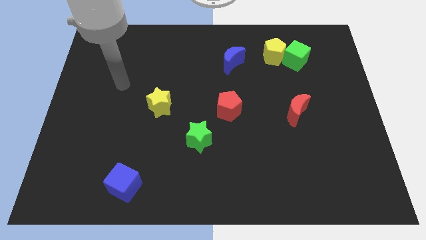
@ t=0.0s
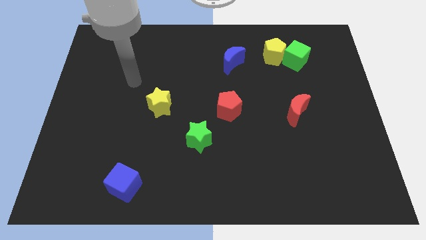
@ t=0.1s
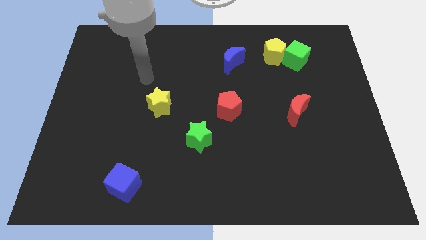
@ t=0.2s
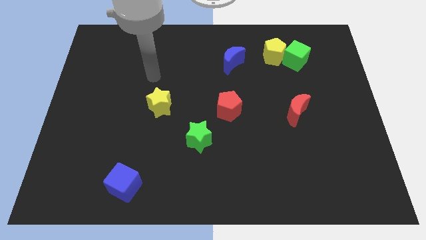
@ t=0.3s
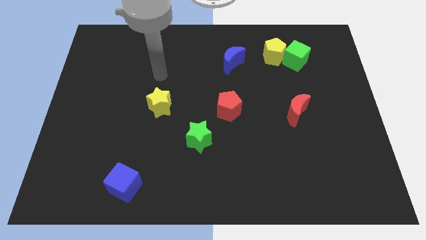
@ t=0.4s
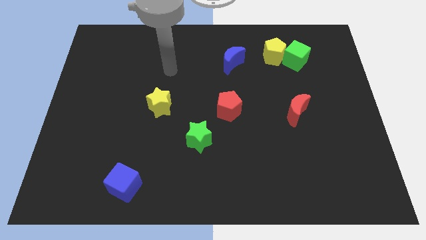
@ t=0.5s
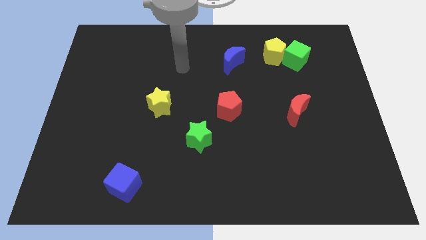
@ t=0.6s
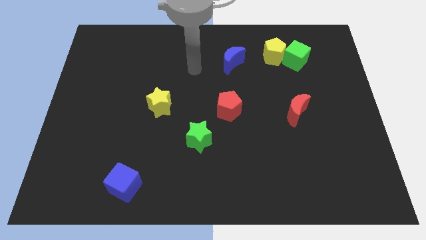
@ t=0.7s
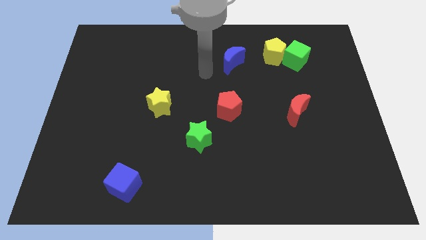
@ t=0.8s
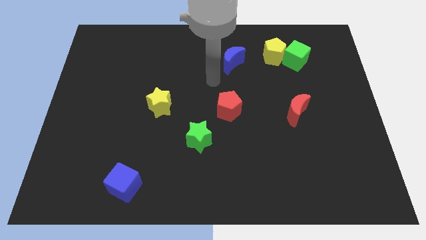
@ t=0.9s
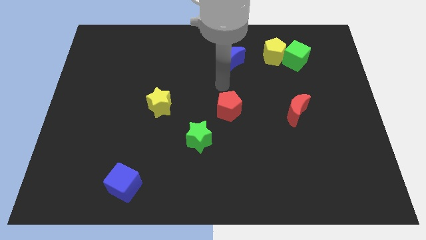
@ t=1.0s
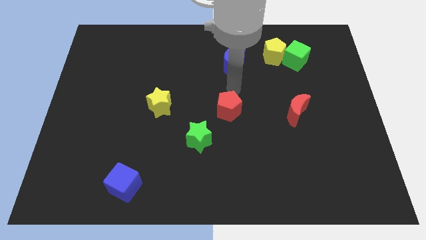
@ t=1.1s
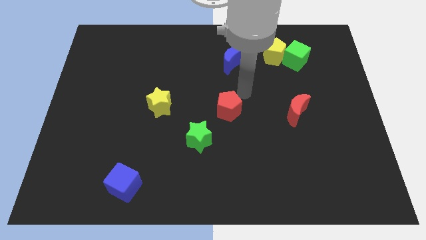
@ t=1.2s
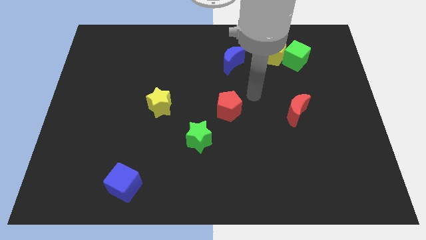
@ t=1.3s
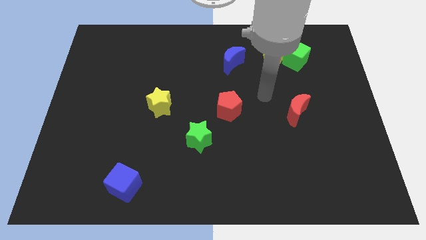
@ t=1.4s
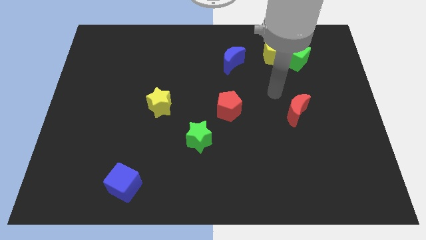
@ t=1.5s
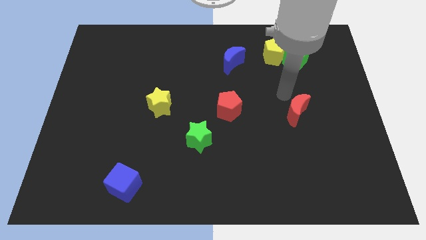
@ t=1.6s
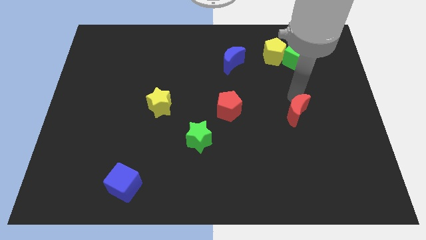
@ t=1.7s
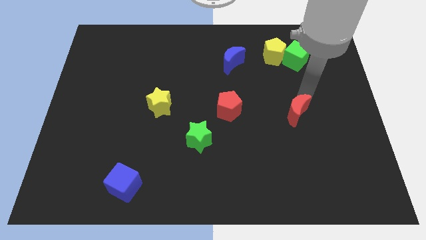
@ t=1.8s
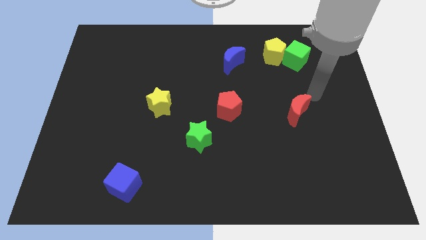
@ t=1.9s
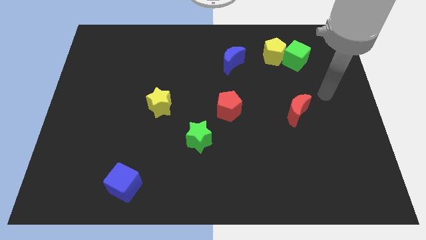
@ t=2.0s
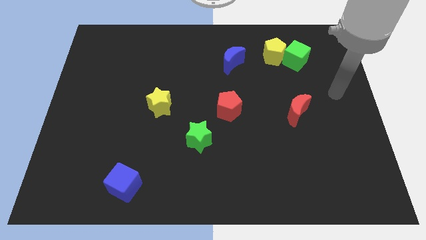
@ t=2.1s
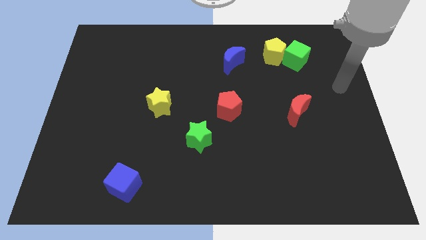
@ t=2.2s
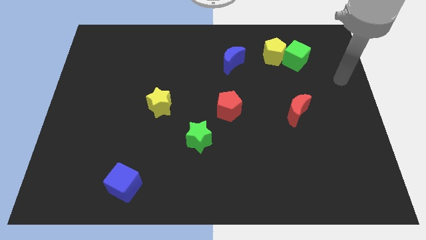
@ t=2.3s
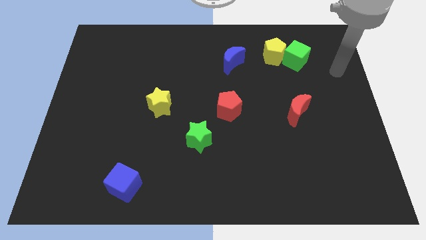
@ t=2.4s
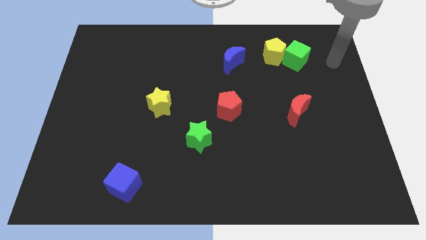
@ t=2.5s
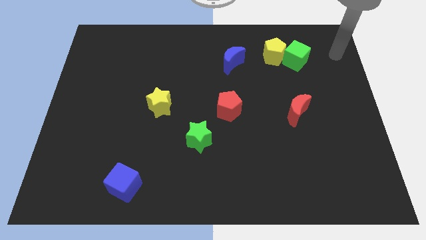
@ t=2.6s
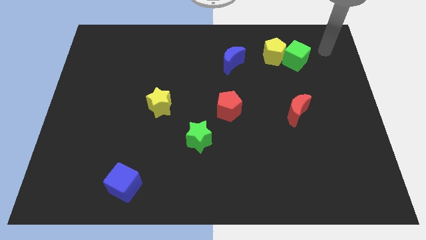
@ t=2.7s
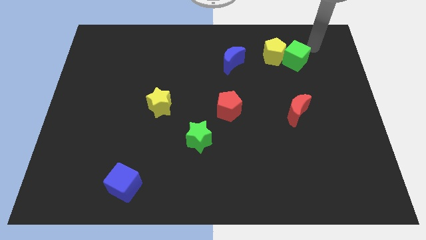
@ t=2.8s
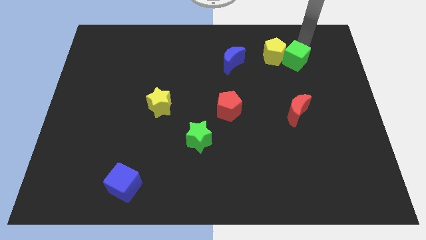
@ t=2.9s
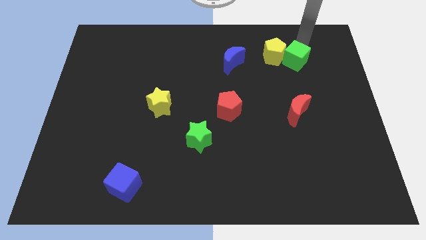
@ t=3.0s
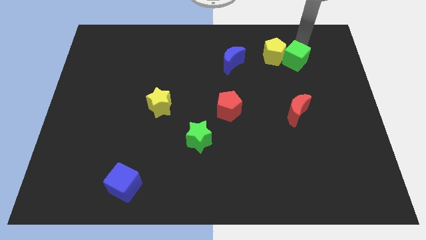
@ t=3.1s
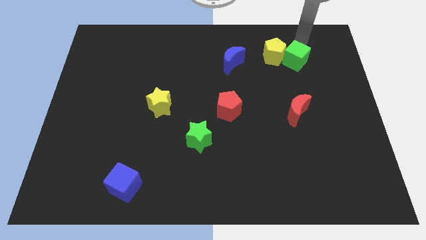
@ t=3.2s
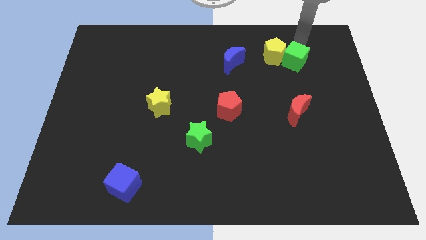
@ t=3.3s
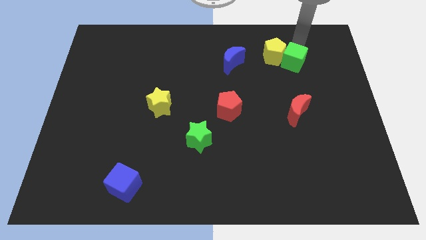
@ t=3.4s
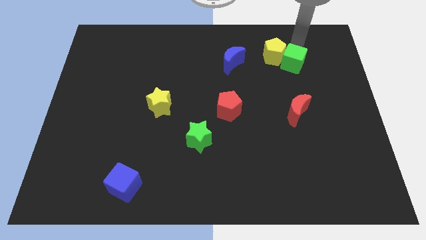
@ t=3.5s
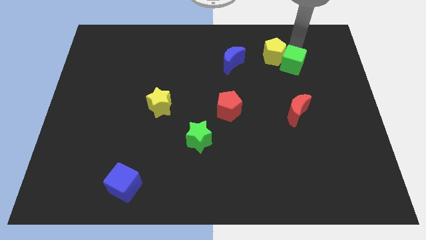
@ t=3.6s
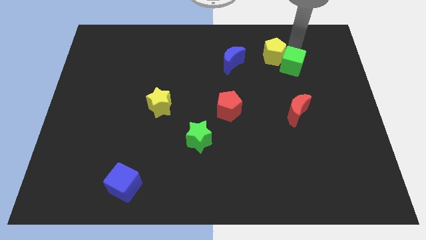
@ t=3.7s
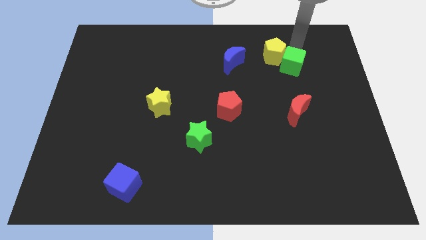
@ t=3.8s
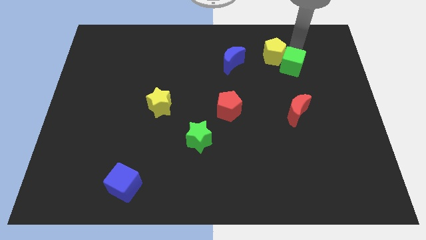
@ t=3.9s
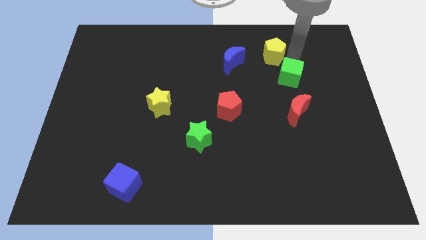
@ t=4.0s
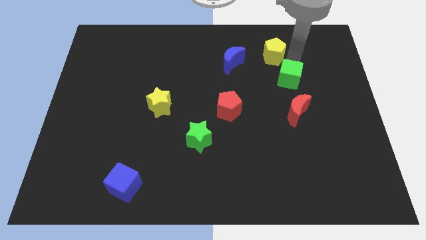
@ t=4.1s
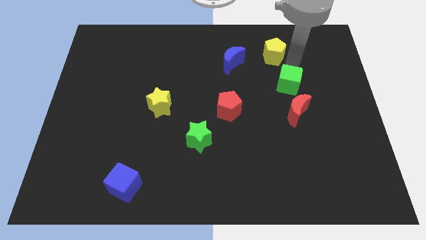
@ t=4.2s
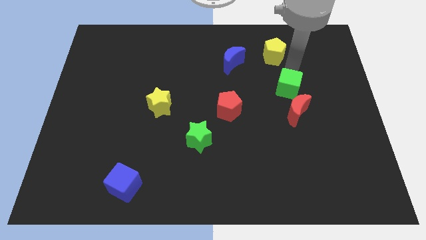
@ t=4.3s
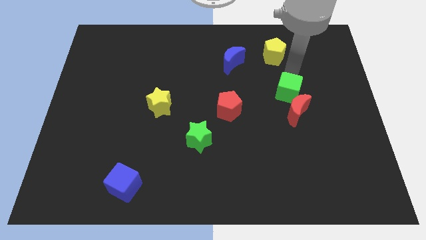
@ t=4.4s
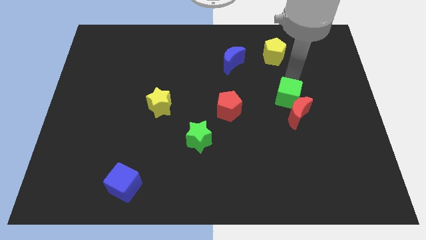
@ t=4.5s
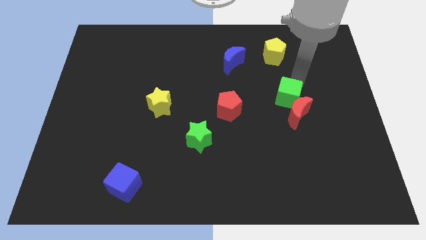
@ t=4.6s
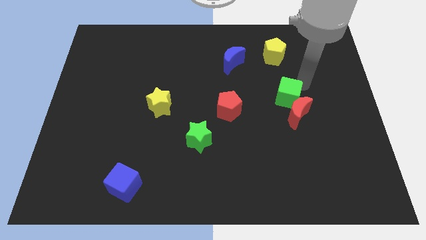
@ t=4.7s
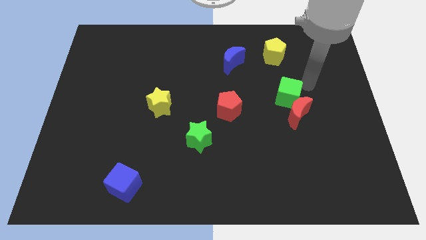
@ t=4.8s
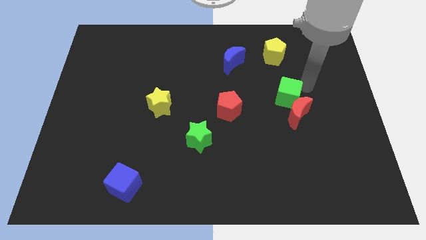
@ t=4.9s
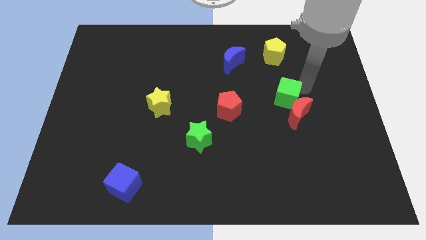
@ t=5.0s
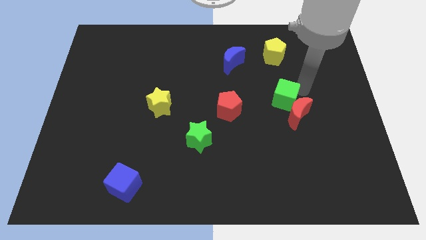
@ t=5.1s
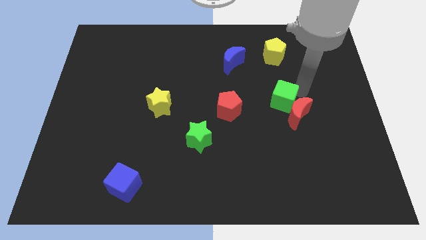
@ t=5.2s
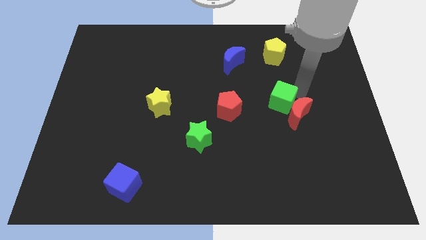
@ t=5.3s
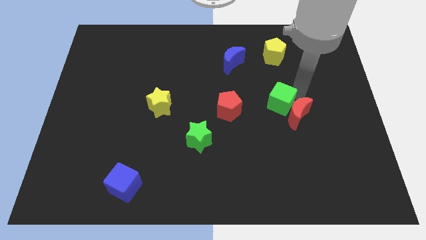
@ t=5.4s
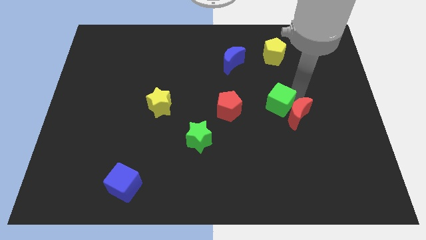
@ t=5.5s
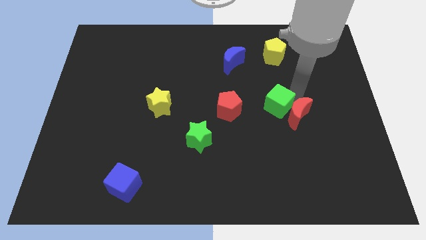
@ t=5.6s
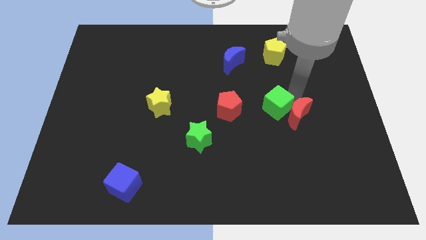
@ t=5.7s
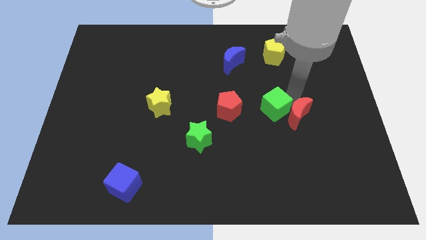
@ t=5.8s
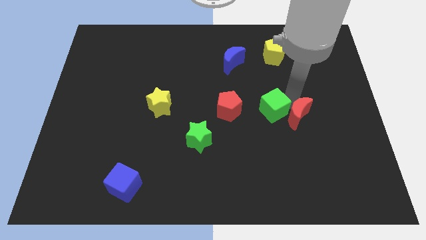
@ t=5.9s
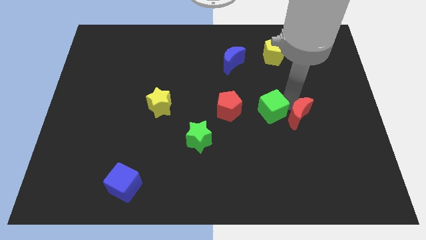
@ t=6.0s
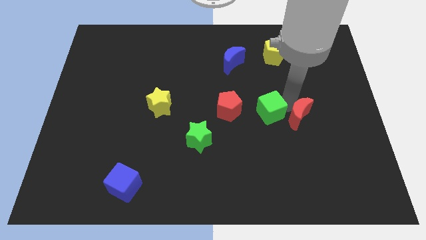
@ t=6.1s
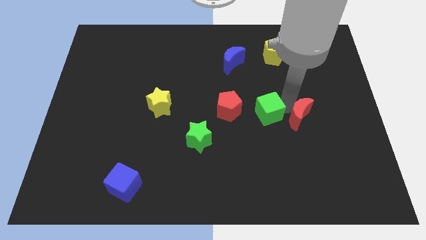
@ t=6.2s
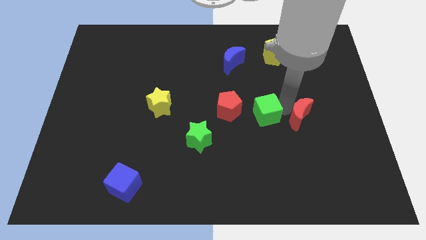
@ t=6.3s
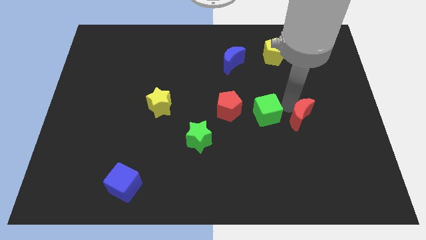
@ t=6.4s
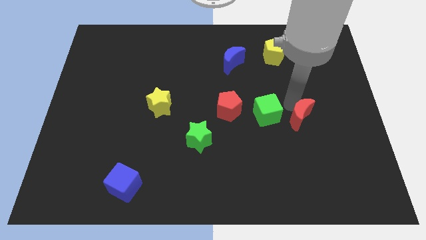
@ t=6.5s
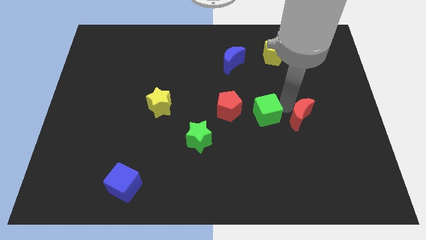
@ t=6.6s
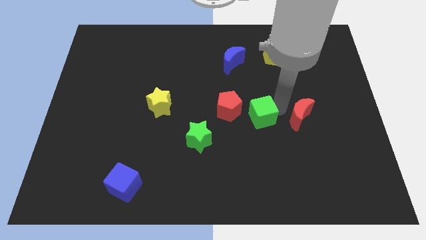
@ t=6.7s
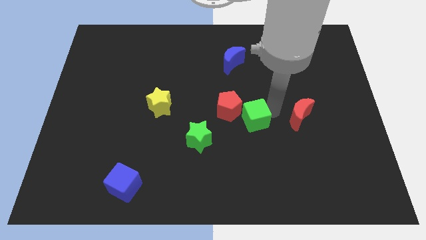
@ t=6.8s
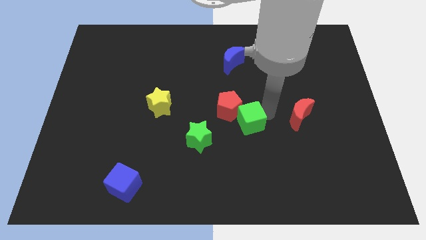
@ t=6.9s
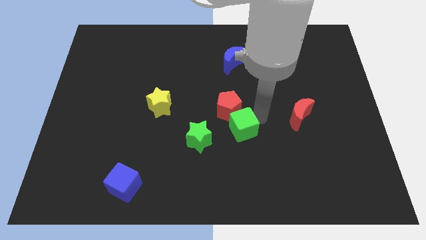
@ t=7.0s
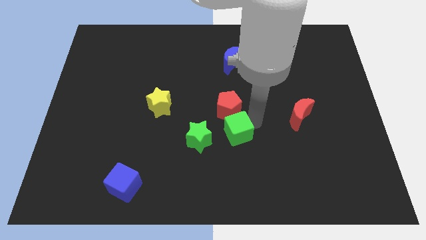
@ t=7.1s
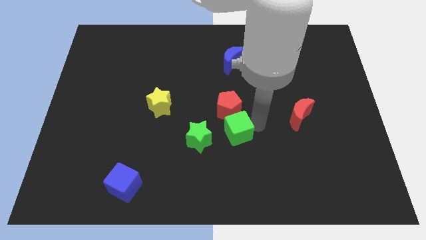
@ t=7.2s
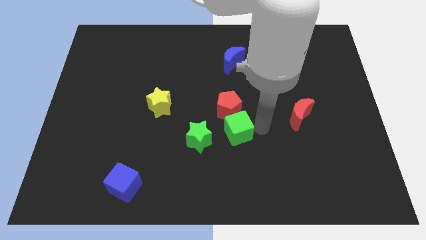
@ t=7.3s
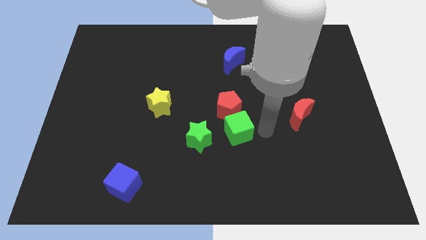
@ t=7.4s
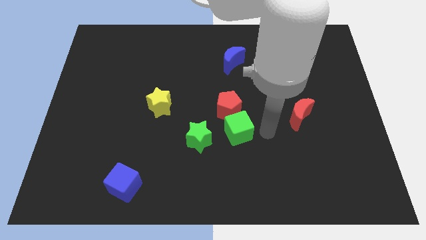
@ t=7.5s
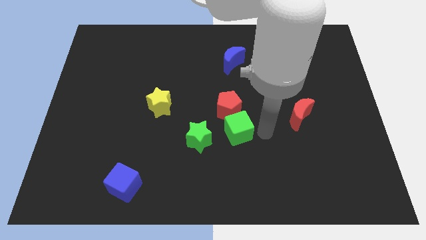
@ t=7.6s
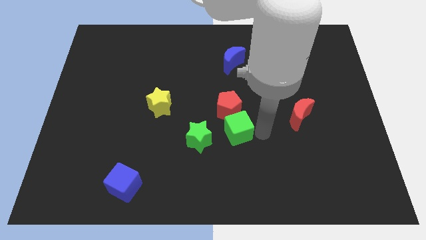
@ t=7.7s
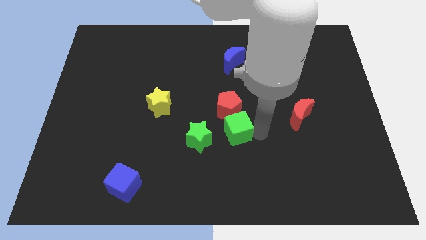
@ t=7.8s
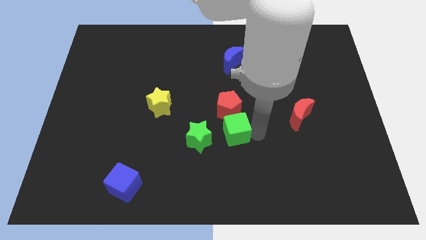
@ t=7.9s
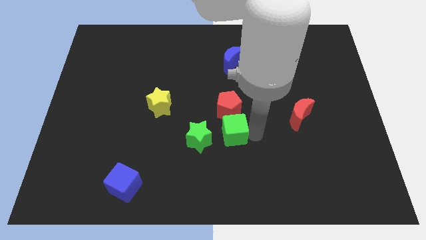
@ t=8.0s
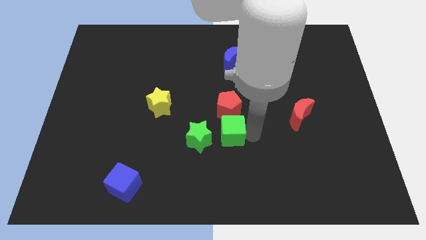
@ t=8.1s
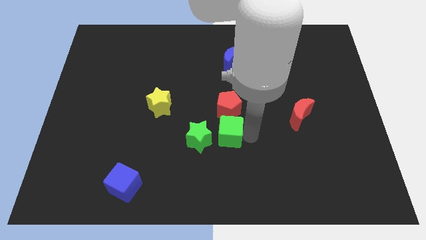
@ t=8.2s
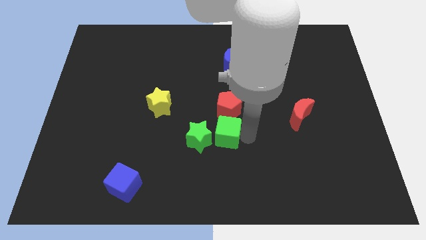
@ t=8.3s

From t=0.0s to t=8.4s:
move the green cube towards the green star
